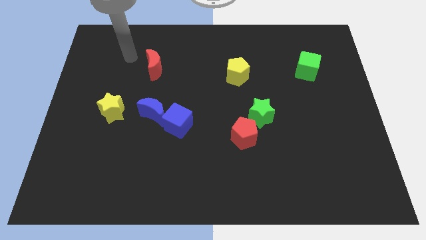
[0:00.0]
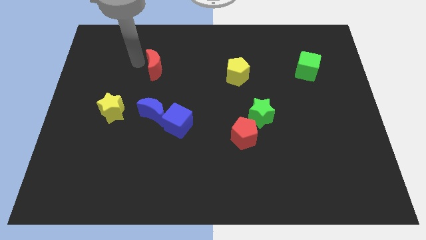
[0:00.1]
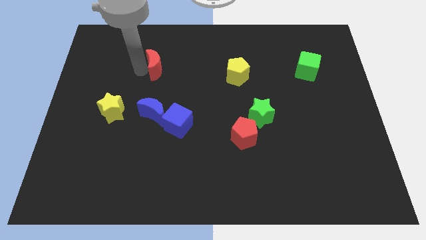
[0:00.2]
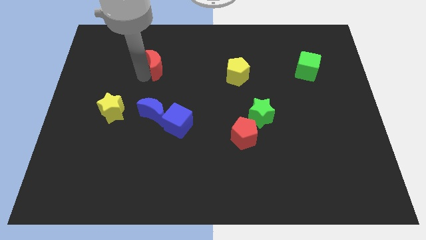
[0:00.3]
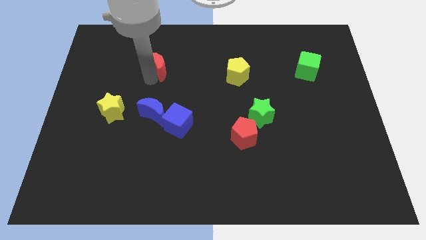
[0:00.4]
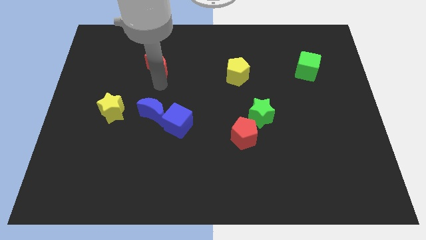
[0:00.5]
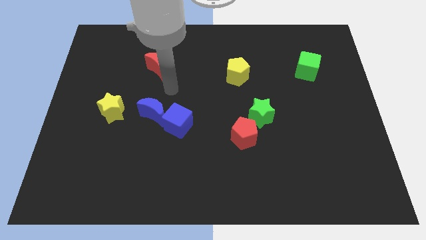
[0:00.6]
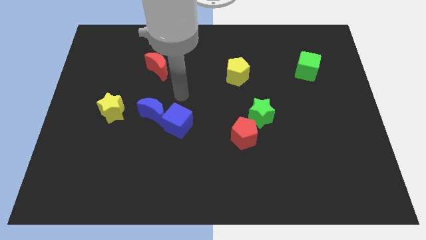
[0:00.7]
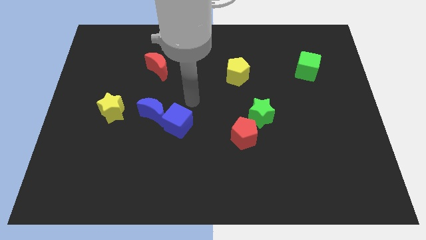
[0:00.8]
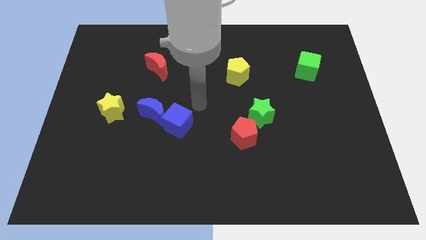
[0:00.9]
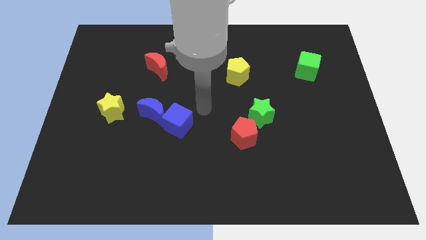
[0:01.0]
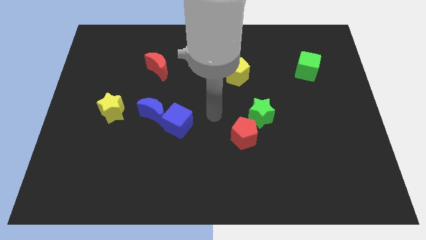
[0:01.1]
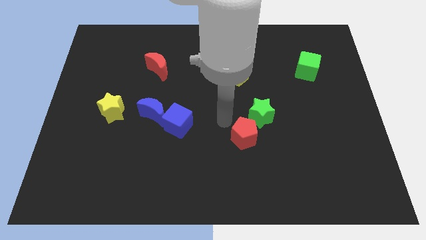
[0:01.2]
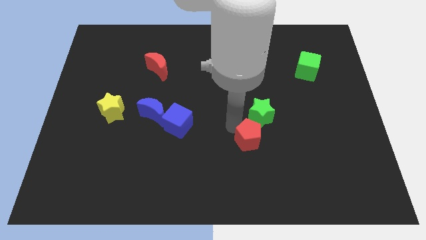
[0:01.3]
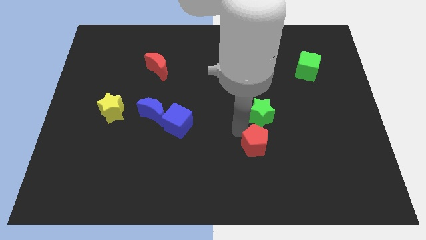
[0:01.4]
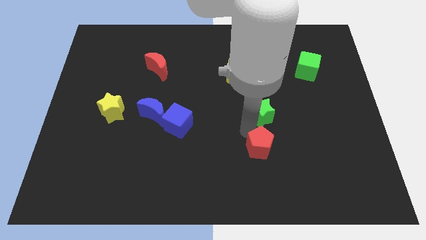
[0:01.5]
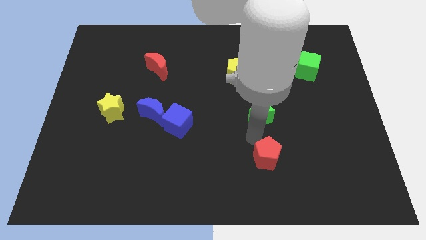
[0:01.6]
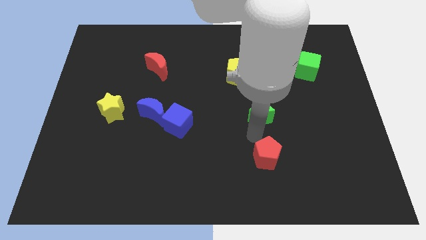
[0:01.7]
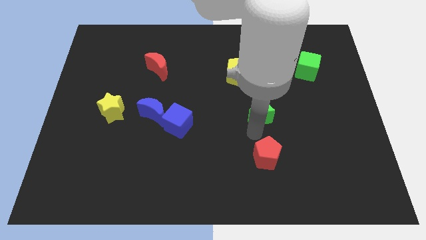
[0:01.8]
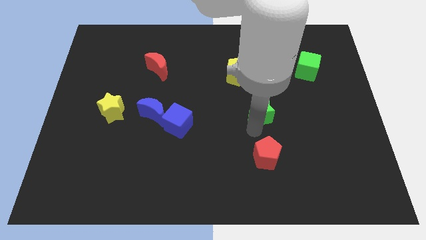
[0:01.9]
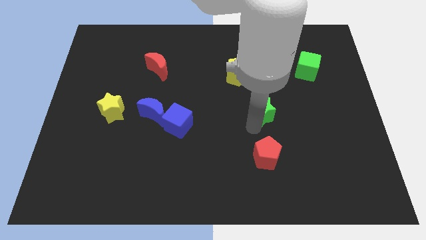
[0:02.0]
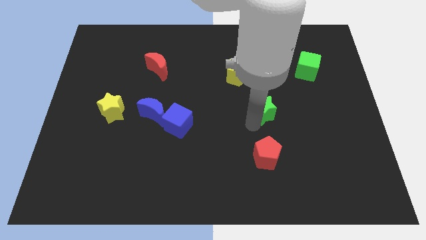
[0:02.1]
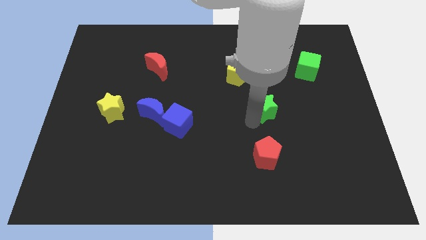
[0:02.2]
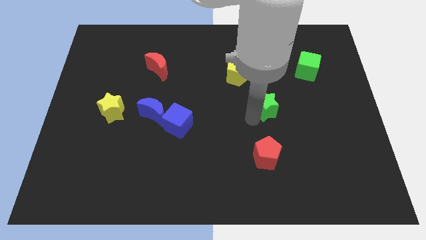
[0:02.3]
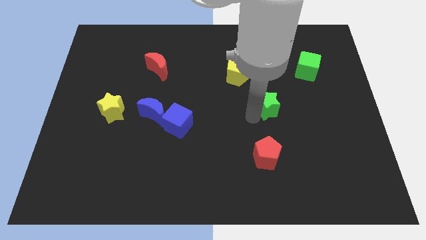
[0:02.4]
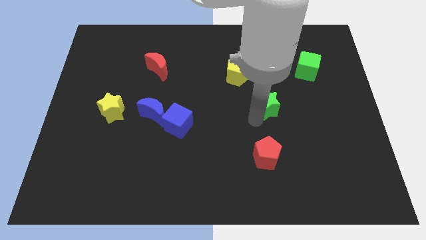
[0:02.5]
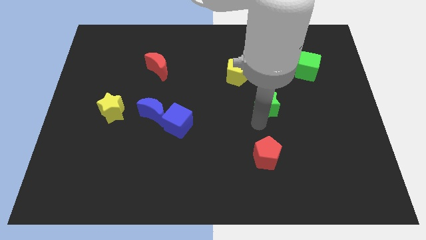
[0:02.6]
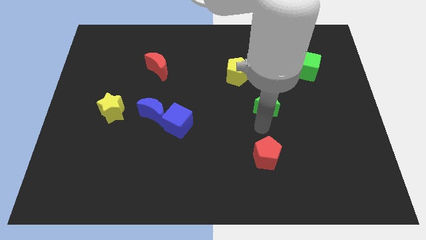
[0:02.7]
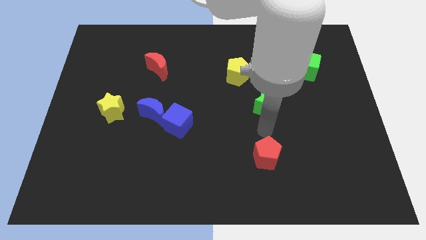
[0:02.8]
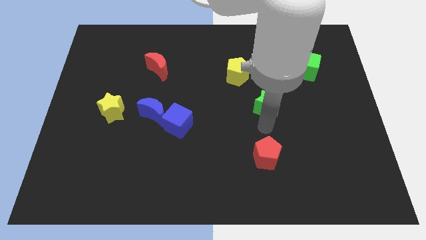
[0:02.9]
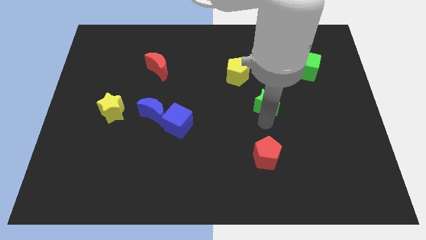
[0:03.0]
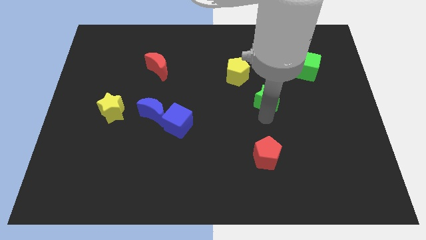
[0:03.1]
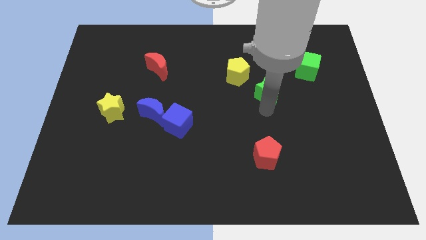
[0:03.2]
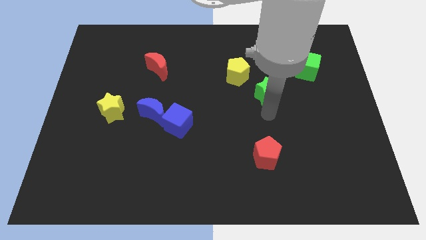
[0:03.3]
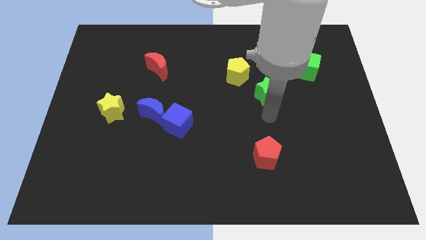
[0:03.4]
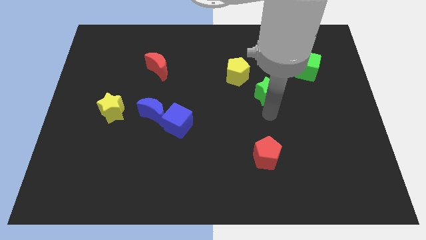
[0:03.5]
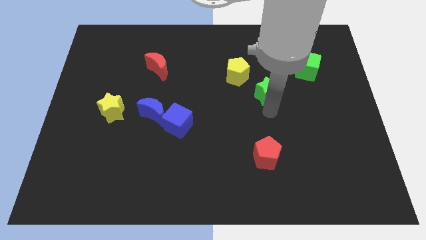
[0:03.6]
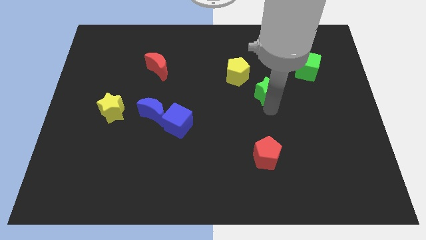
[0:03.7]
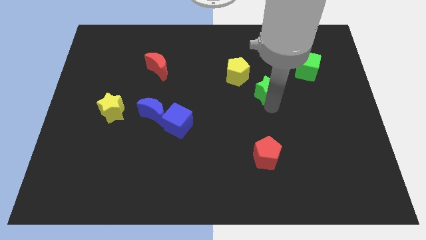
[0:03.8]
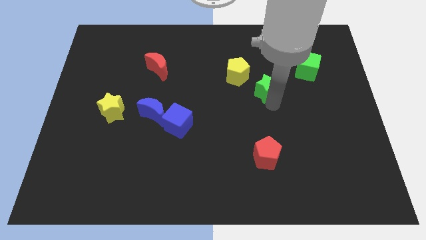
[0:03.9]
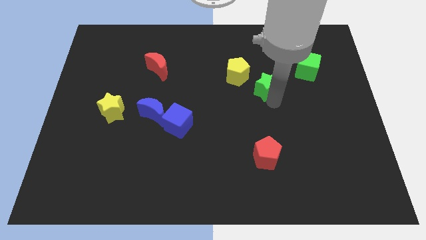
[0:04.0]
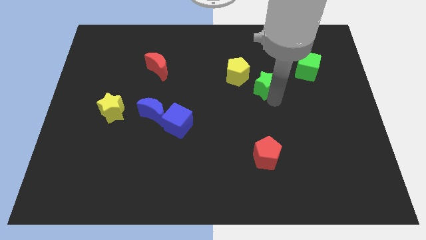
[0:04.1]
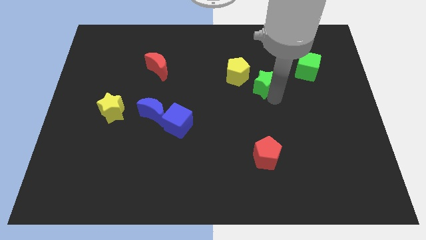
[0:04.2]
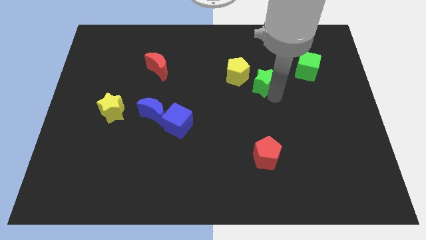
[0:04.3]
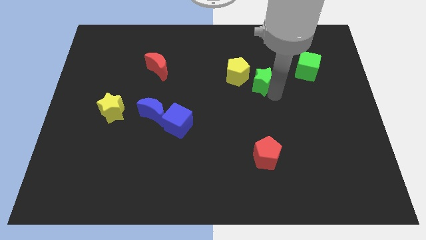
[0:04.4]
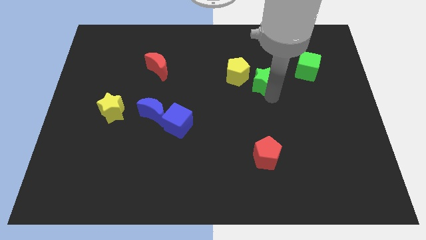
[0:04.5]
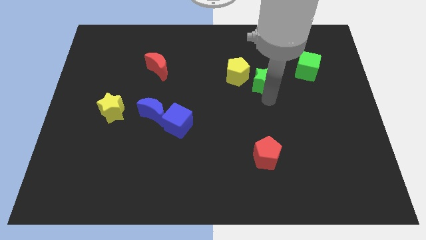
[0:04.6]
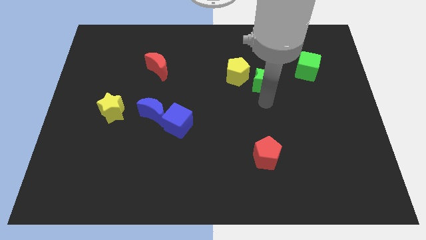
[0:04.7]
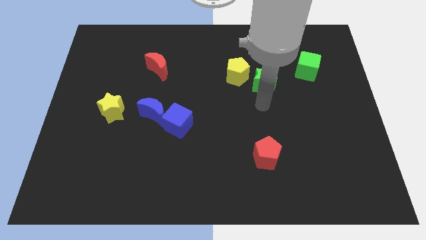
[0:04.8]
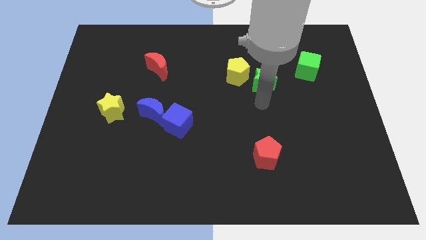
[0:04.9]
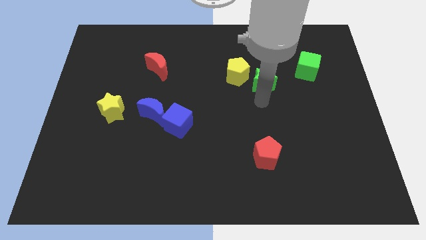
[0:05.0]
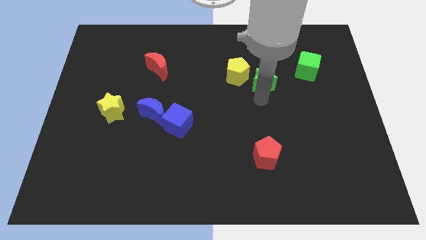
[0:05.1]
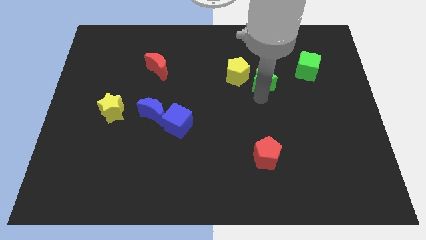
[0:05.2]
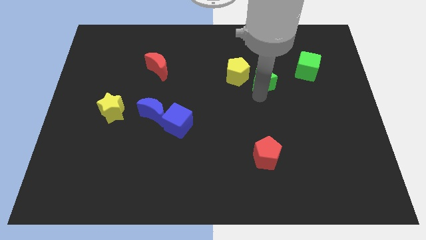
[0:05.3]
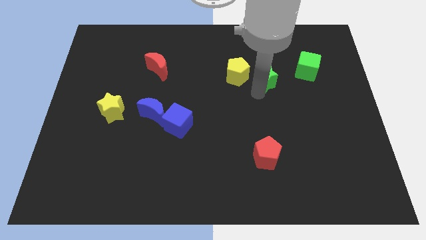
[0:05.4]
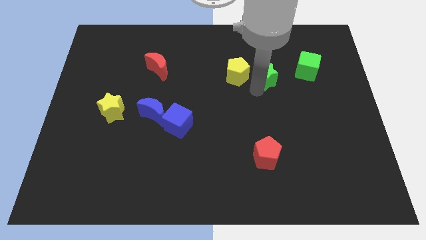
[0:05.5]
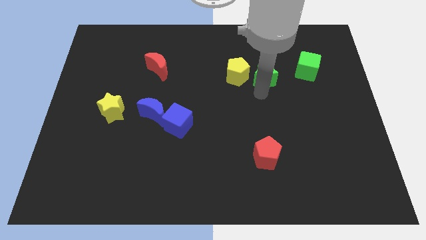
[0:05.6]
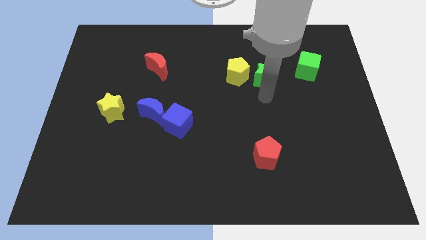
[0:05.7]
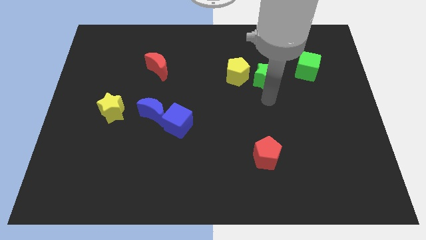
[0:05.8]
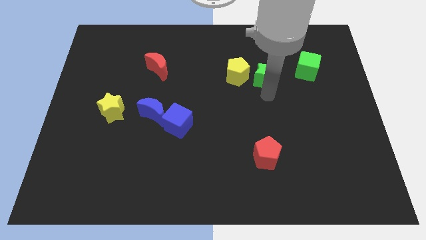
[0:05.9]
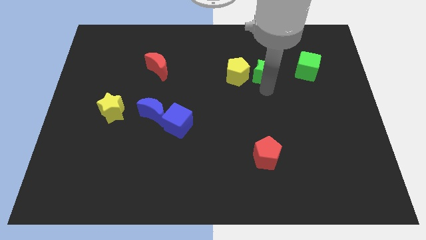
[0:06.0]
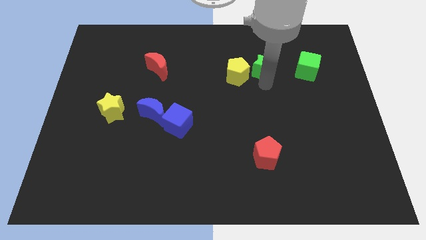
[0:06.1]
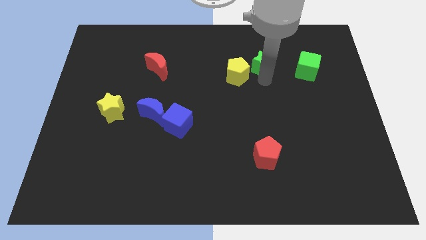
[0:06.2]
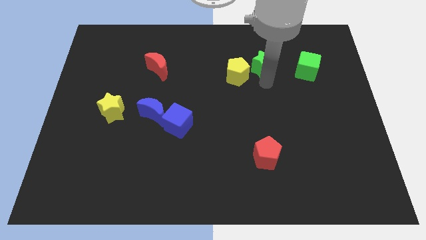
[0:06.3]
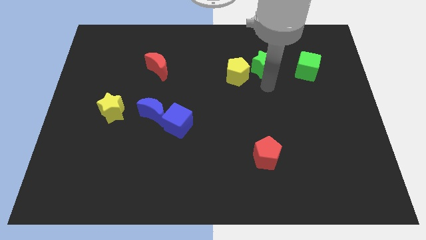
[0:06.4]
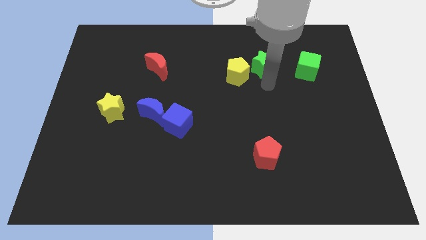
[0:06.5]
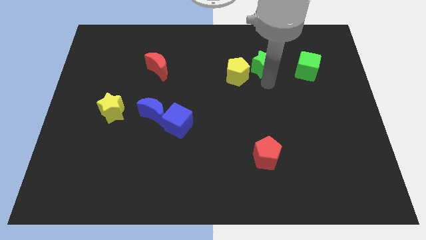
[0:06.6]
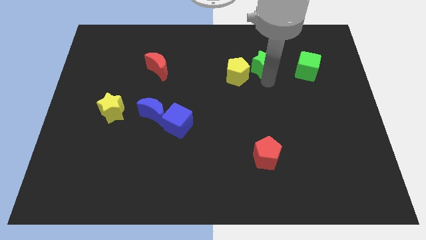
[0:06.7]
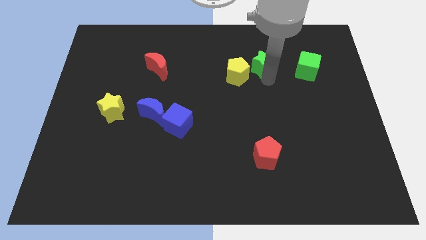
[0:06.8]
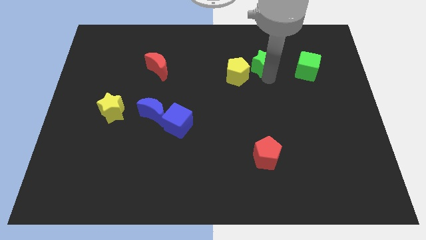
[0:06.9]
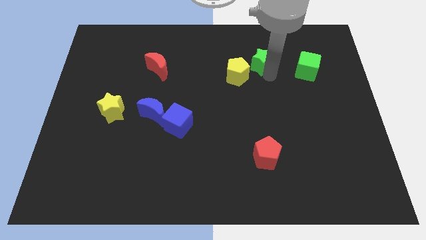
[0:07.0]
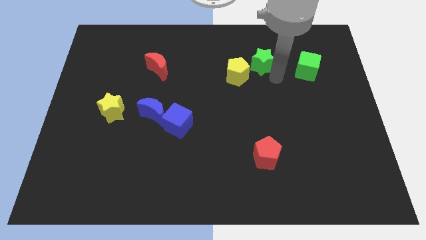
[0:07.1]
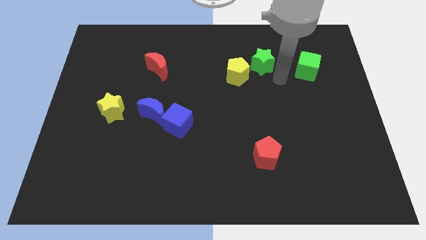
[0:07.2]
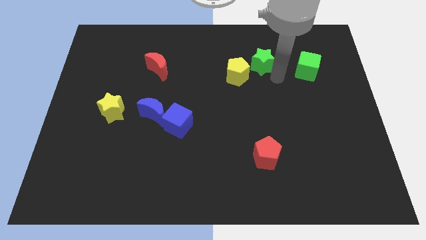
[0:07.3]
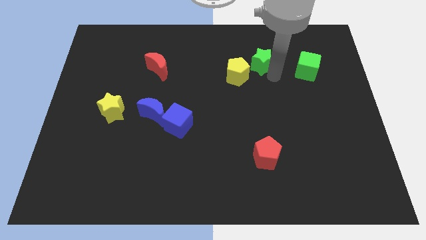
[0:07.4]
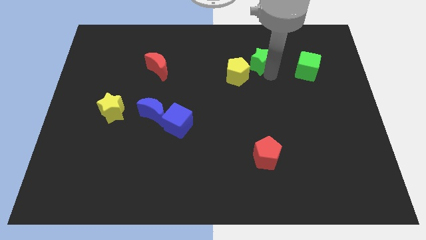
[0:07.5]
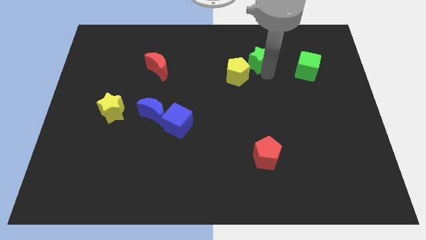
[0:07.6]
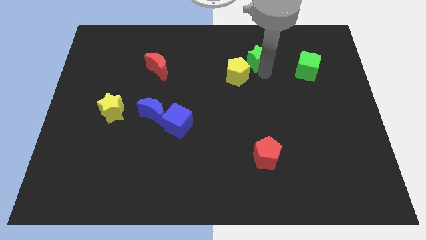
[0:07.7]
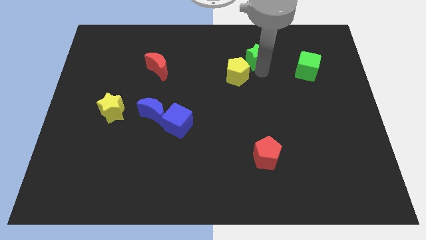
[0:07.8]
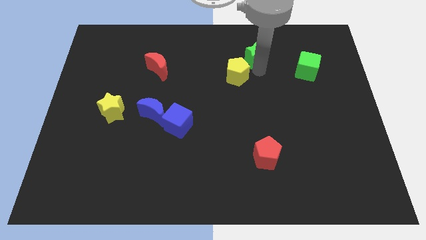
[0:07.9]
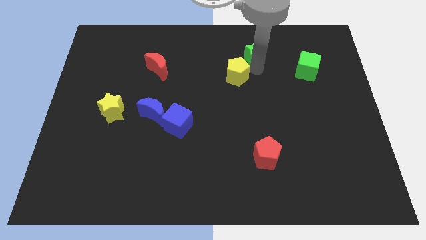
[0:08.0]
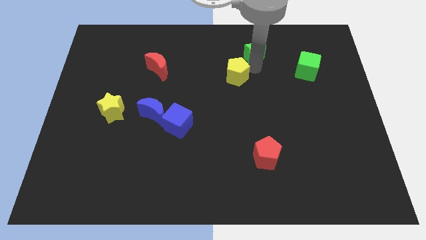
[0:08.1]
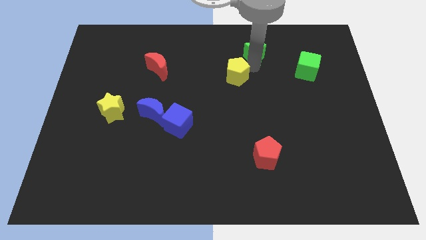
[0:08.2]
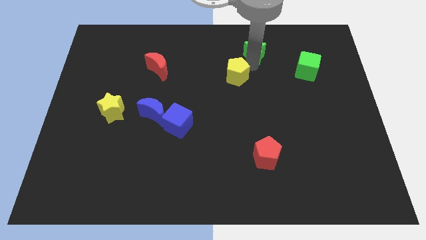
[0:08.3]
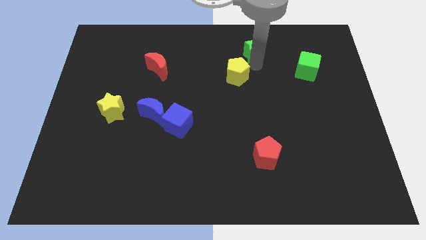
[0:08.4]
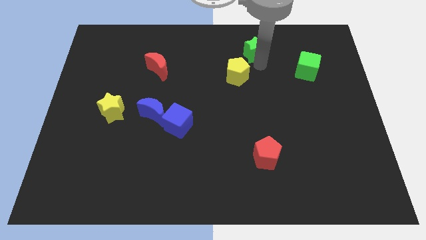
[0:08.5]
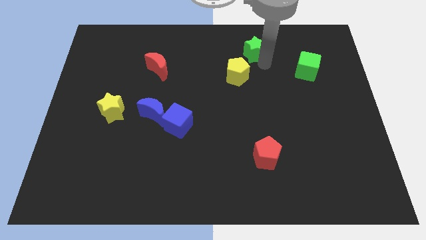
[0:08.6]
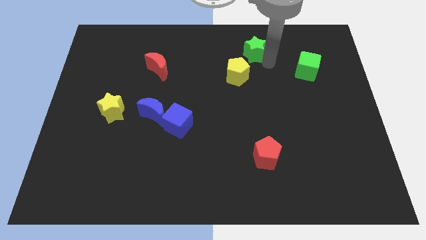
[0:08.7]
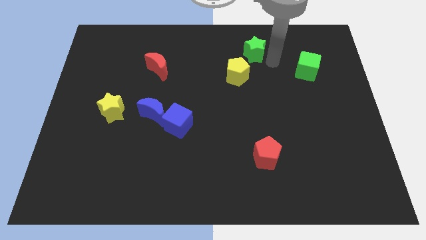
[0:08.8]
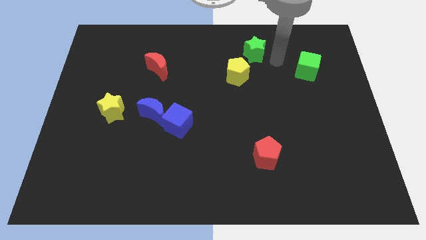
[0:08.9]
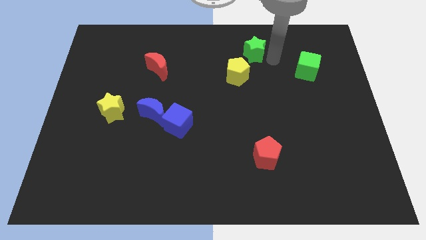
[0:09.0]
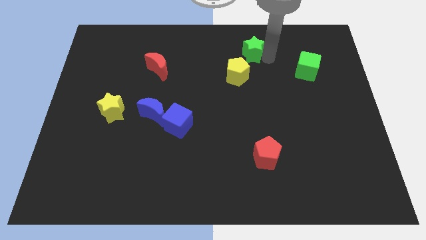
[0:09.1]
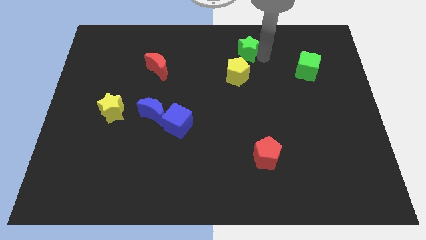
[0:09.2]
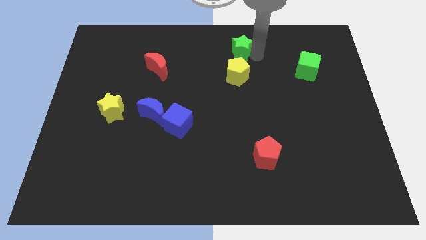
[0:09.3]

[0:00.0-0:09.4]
put the green star to the towards your base
